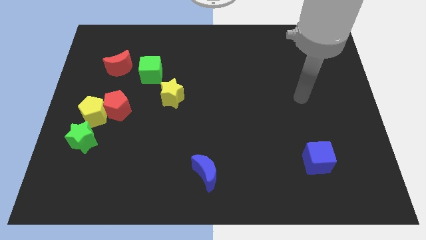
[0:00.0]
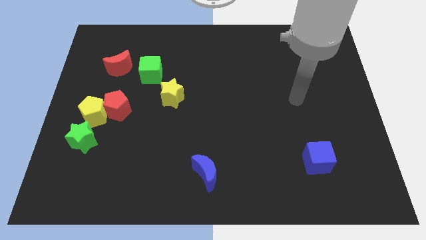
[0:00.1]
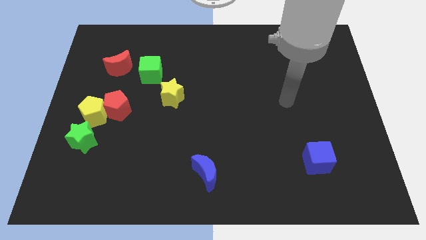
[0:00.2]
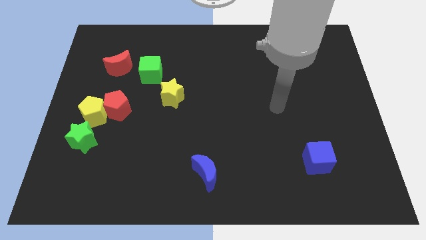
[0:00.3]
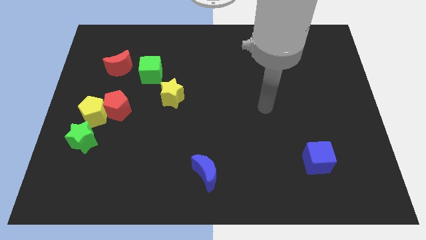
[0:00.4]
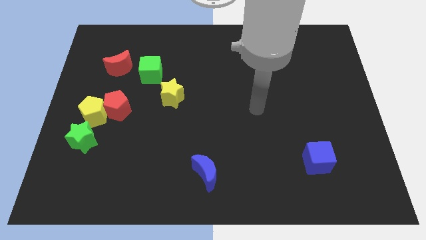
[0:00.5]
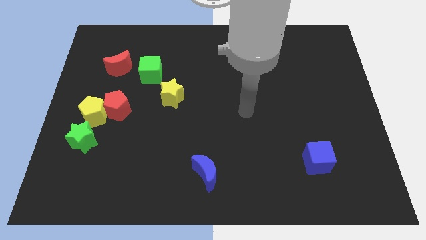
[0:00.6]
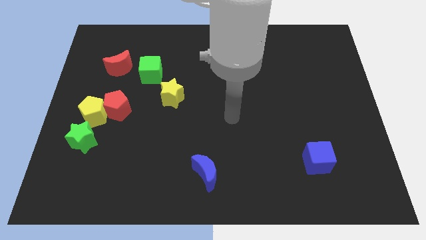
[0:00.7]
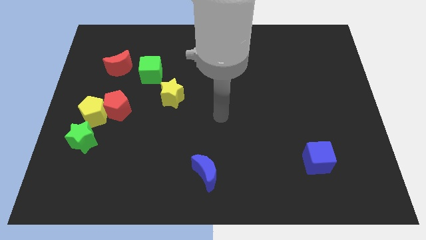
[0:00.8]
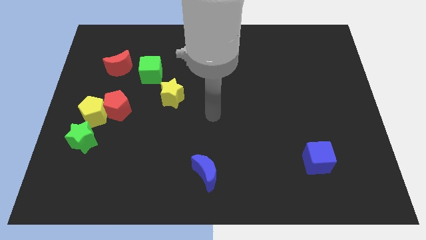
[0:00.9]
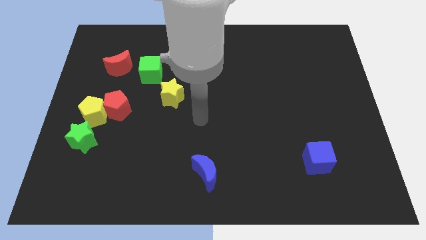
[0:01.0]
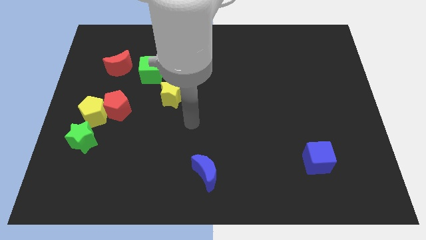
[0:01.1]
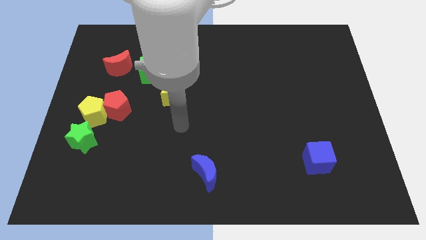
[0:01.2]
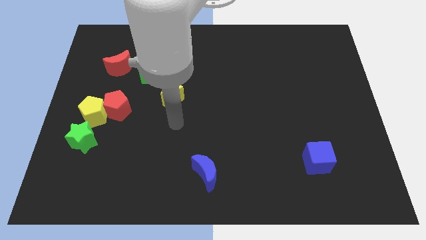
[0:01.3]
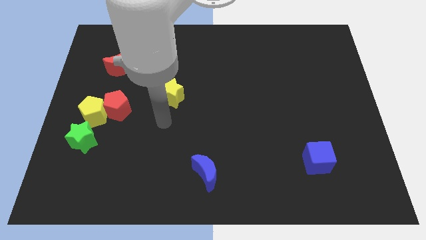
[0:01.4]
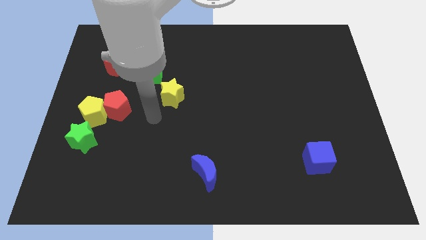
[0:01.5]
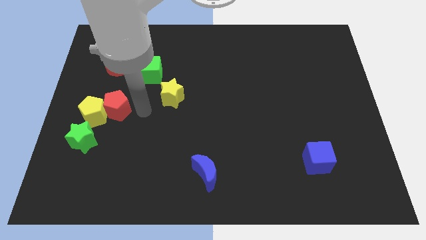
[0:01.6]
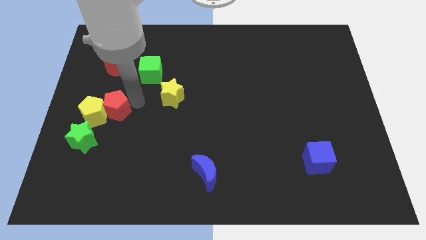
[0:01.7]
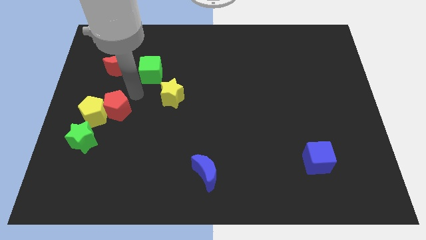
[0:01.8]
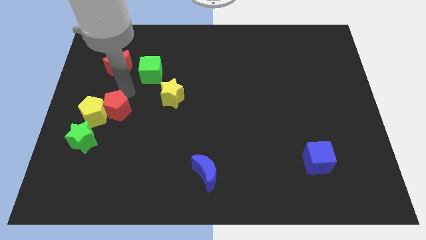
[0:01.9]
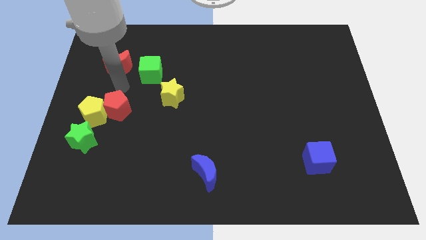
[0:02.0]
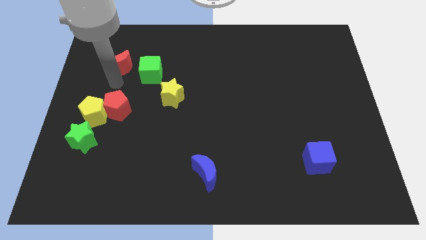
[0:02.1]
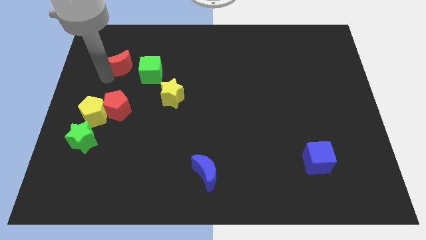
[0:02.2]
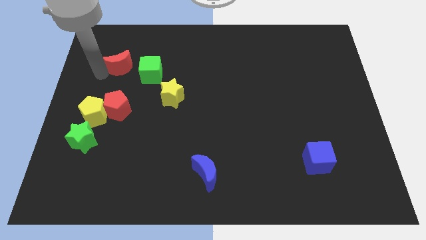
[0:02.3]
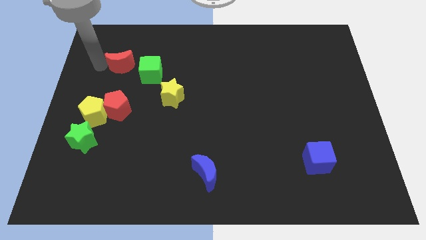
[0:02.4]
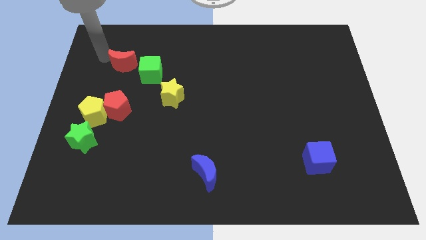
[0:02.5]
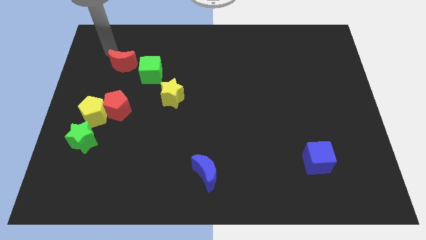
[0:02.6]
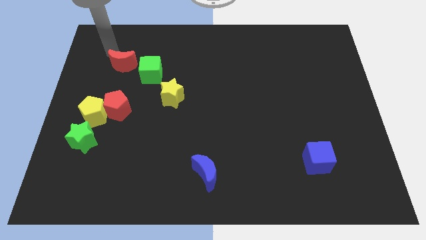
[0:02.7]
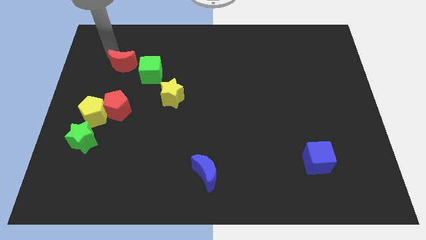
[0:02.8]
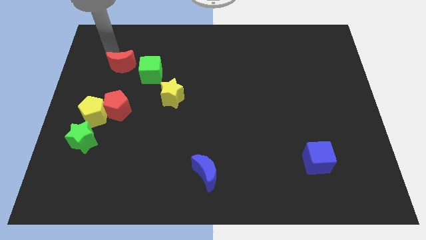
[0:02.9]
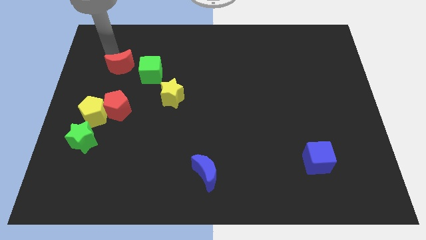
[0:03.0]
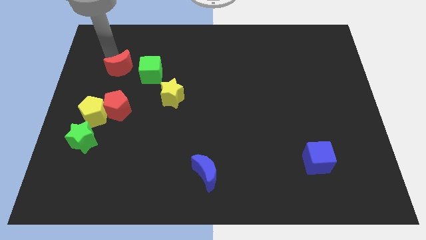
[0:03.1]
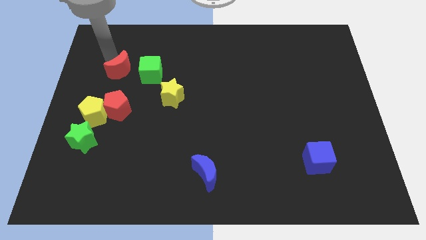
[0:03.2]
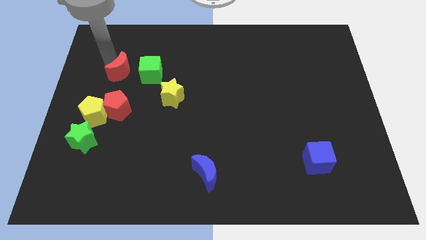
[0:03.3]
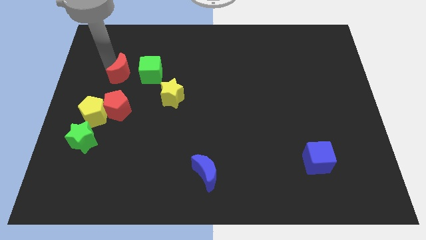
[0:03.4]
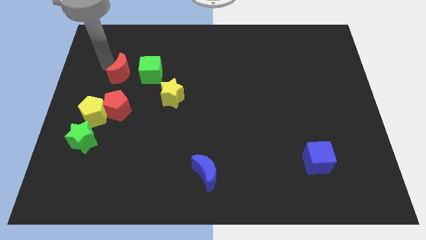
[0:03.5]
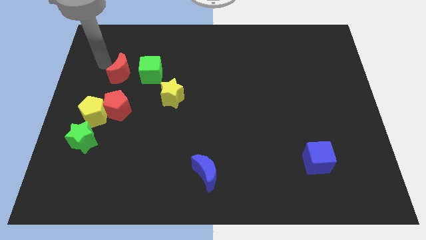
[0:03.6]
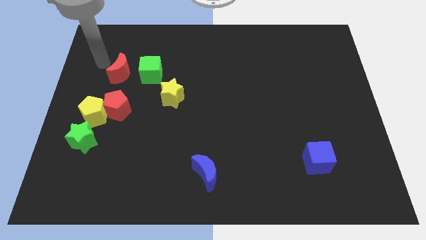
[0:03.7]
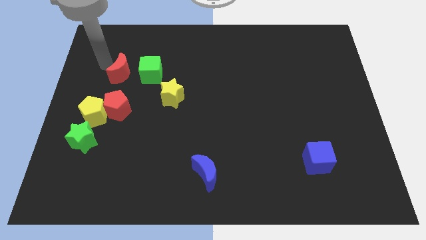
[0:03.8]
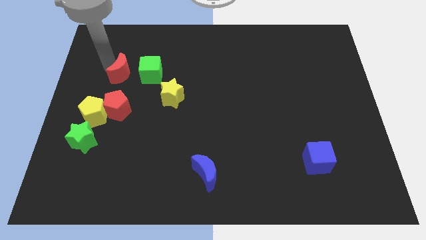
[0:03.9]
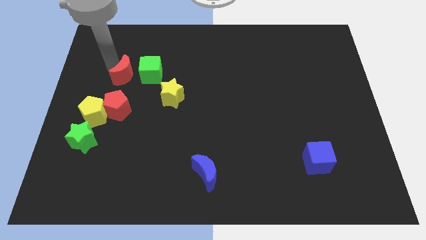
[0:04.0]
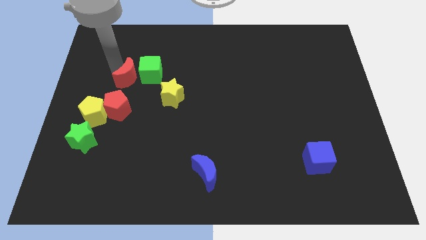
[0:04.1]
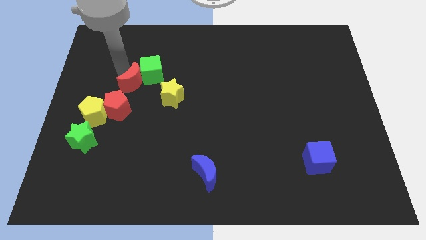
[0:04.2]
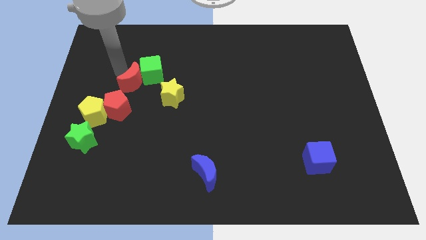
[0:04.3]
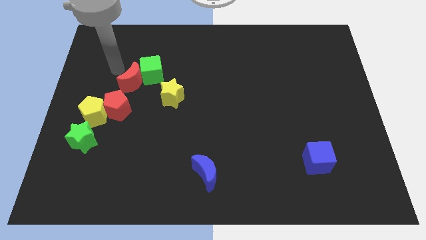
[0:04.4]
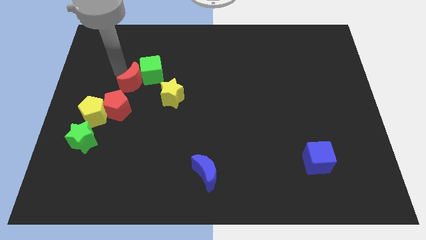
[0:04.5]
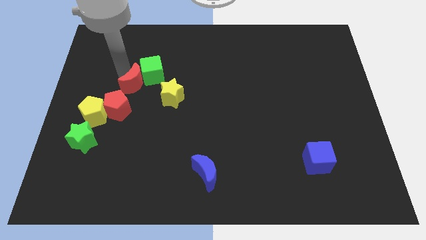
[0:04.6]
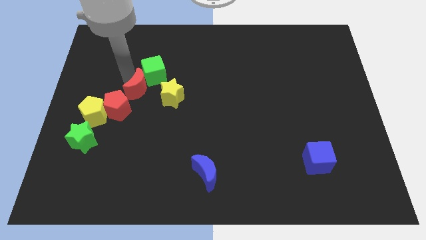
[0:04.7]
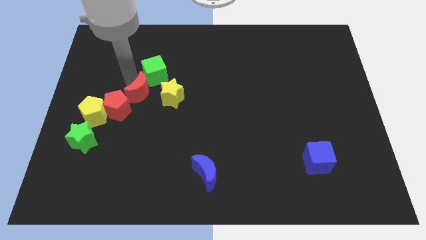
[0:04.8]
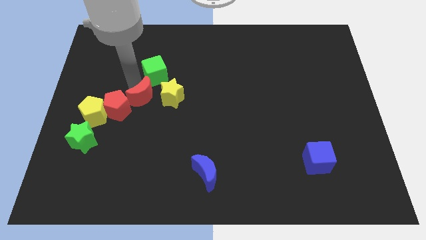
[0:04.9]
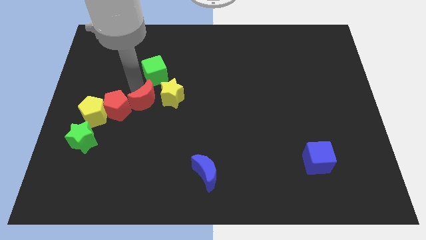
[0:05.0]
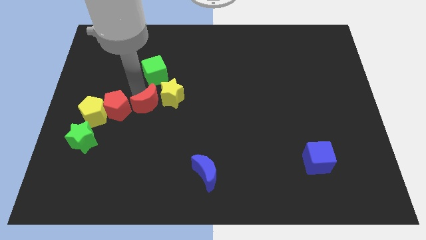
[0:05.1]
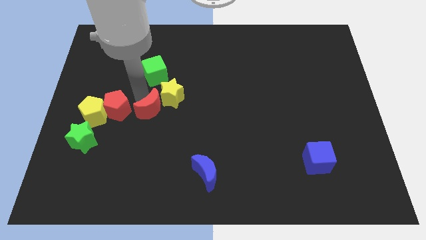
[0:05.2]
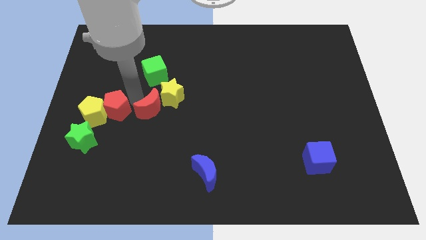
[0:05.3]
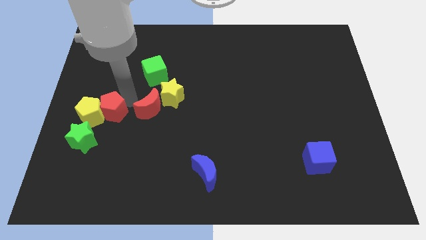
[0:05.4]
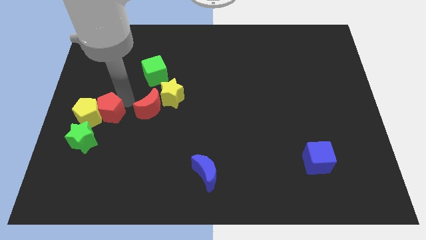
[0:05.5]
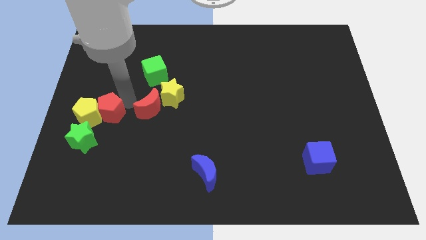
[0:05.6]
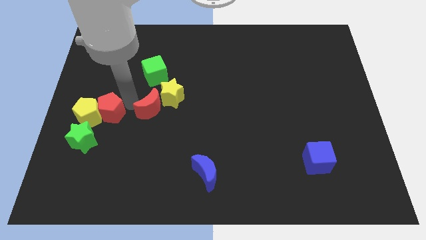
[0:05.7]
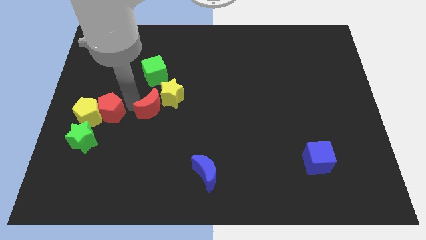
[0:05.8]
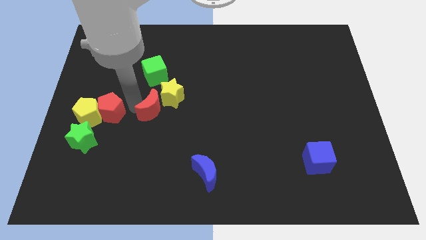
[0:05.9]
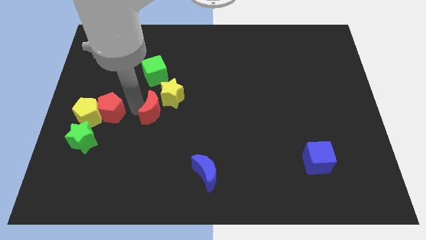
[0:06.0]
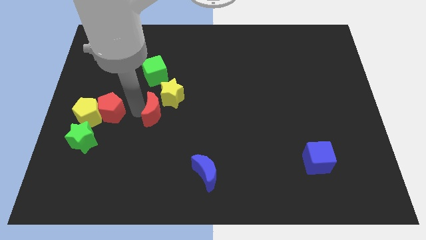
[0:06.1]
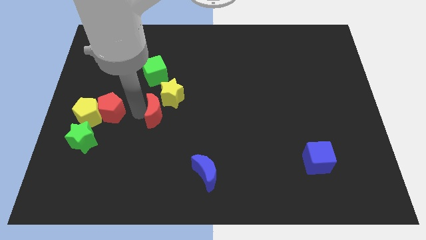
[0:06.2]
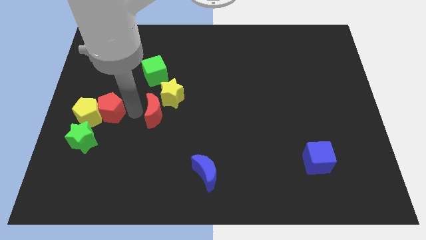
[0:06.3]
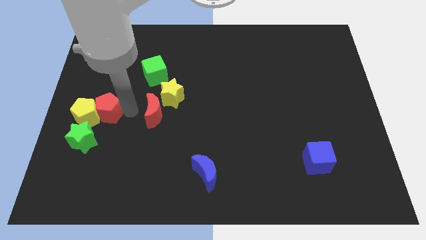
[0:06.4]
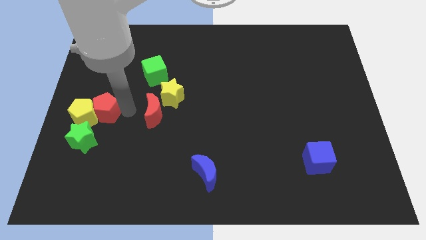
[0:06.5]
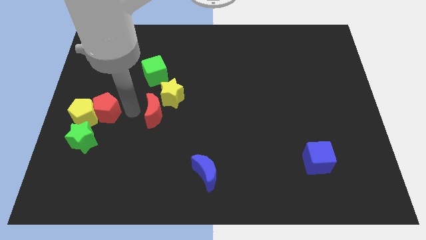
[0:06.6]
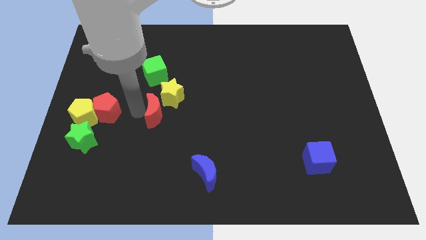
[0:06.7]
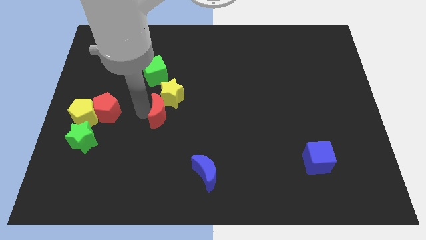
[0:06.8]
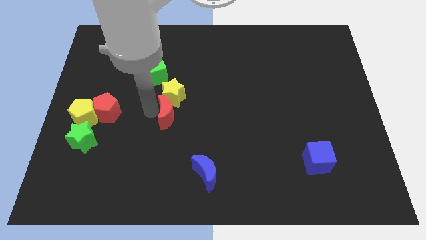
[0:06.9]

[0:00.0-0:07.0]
push the red moon downwards and to the right diagonally

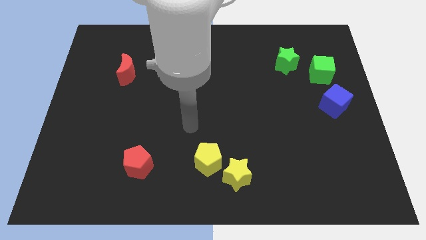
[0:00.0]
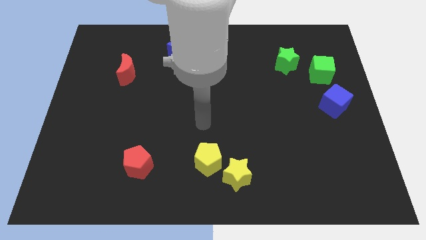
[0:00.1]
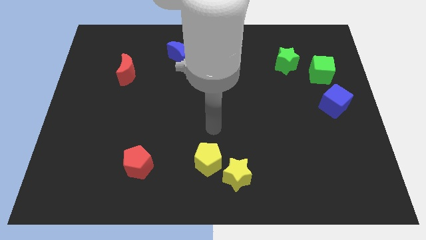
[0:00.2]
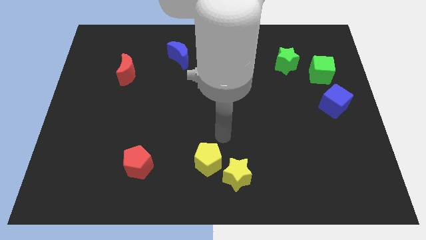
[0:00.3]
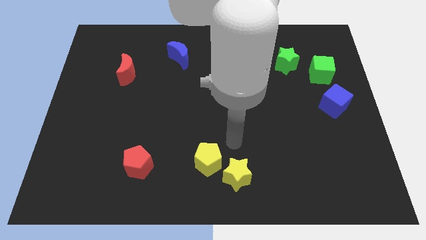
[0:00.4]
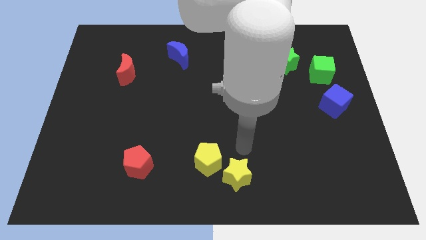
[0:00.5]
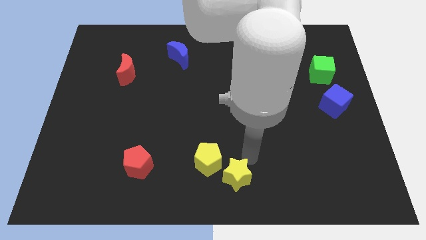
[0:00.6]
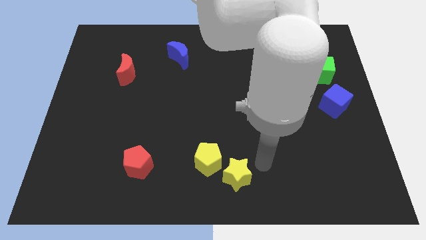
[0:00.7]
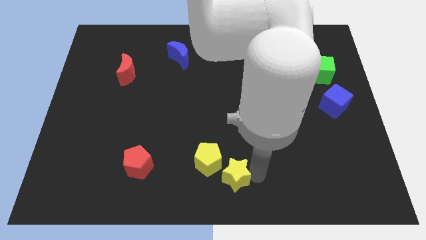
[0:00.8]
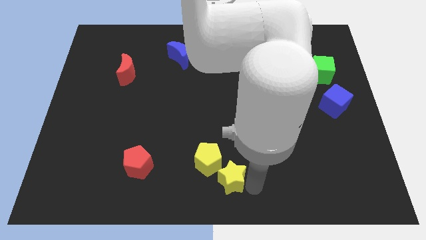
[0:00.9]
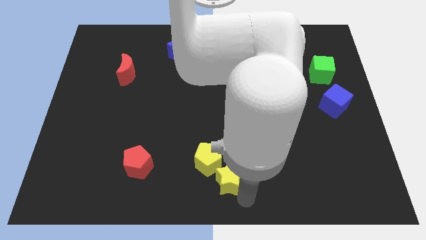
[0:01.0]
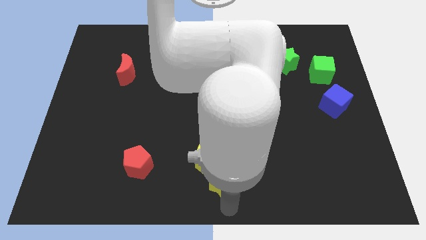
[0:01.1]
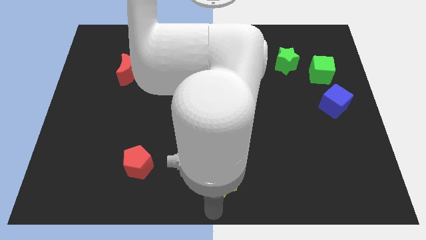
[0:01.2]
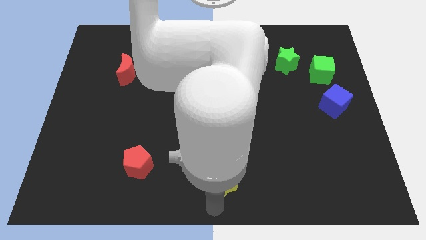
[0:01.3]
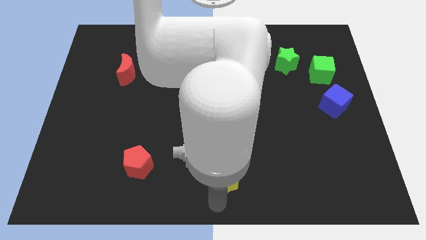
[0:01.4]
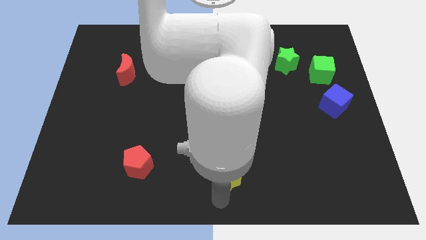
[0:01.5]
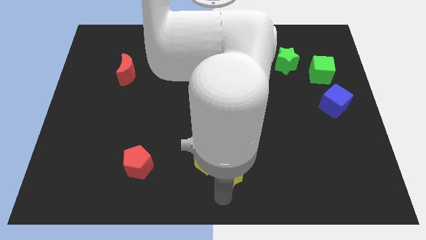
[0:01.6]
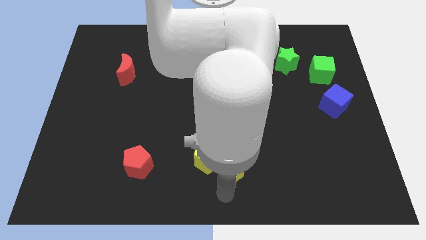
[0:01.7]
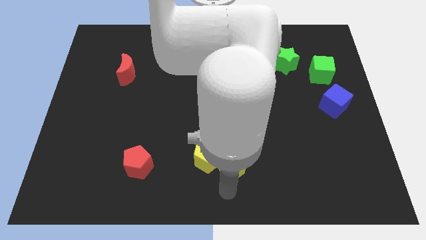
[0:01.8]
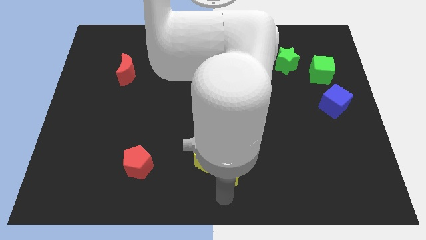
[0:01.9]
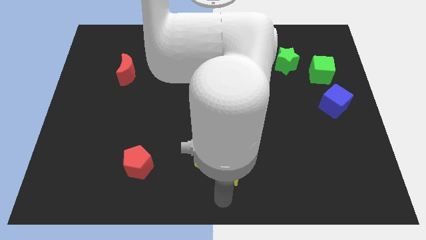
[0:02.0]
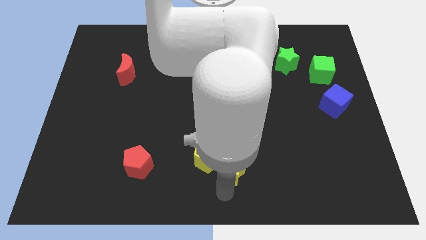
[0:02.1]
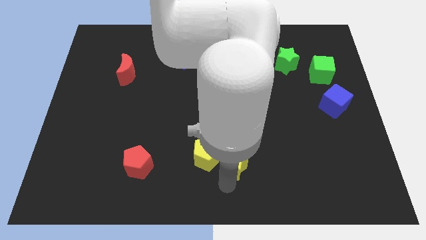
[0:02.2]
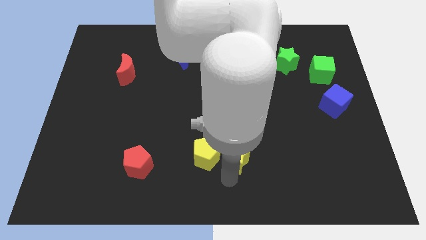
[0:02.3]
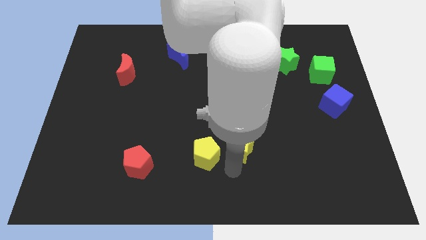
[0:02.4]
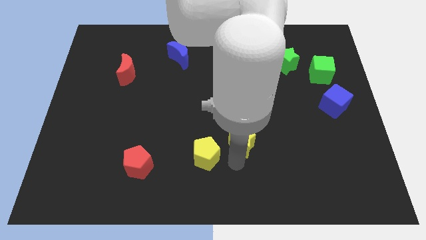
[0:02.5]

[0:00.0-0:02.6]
move the yellow star a bit up
